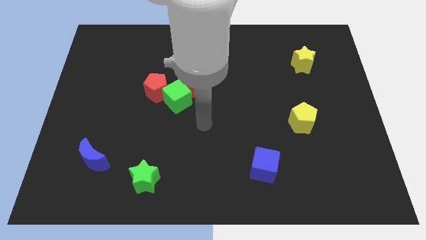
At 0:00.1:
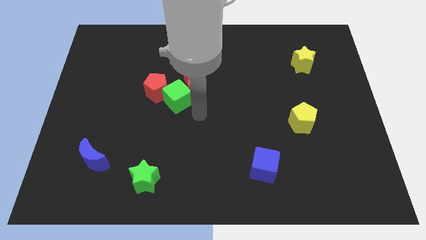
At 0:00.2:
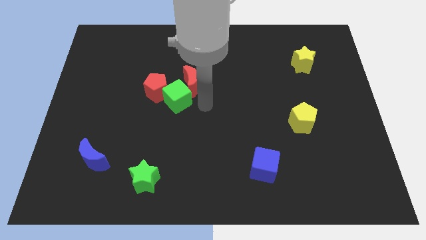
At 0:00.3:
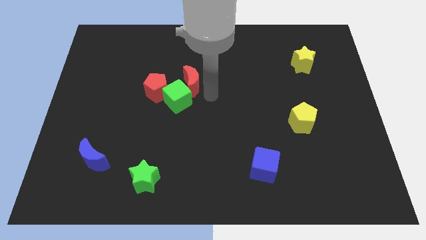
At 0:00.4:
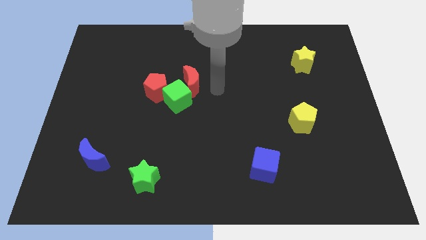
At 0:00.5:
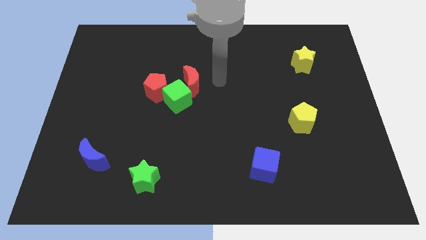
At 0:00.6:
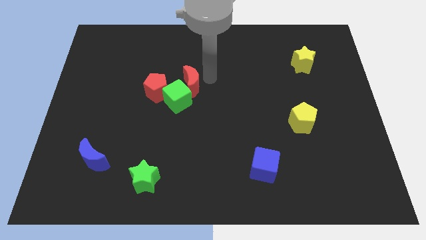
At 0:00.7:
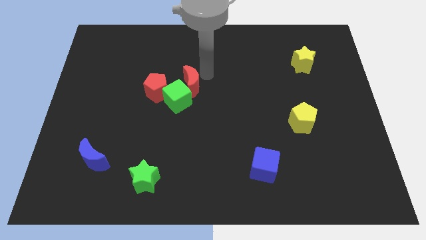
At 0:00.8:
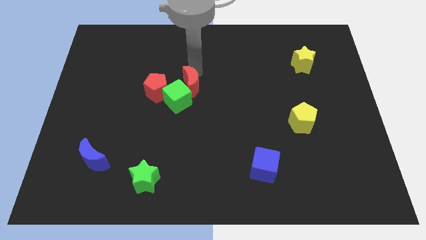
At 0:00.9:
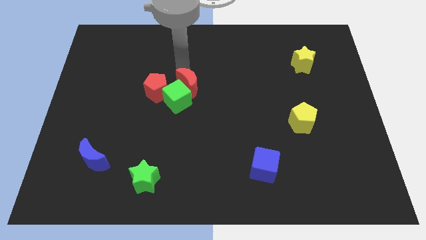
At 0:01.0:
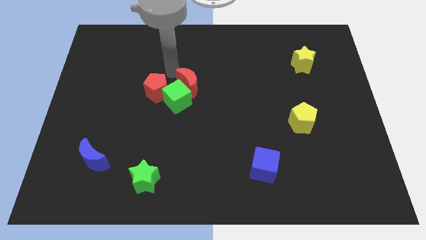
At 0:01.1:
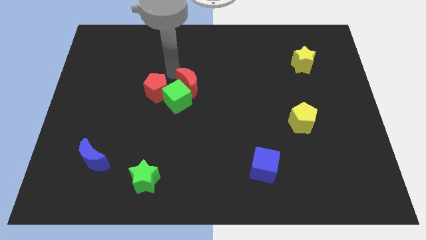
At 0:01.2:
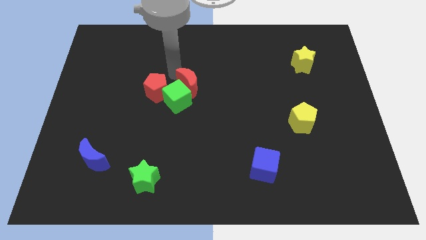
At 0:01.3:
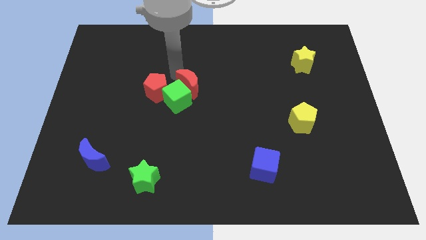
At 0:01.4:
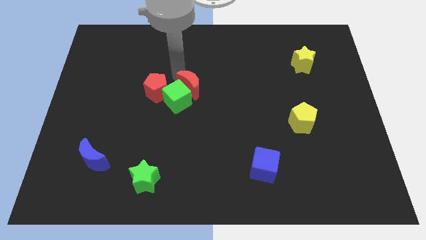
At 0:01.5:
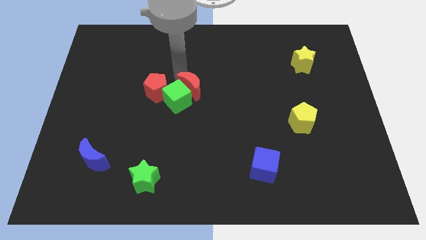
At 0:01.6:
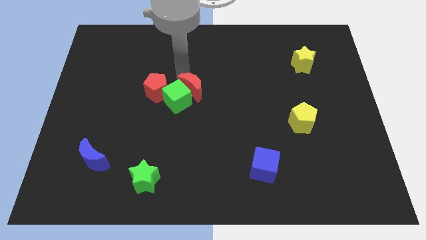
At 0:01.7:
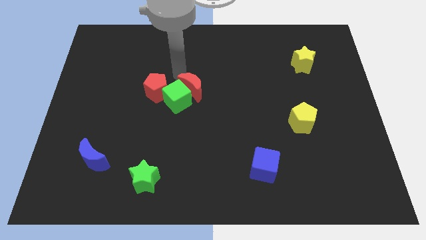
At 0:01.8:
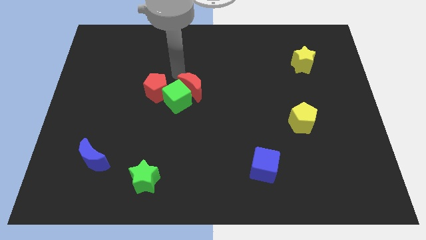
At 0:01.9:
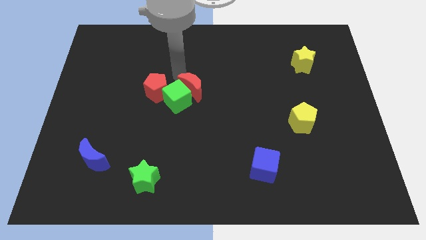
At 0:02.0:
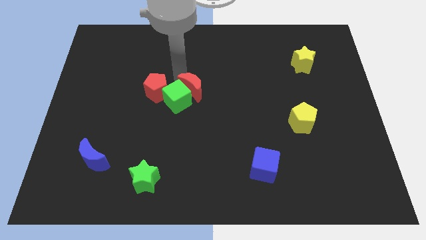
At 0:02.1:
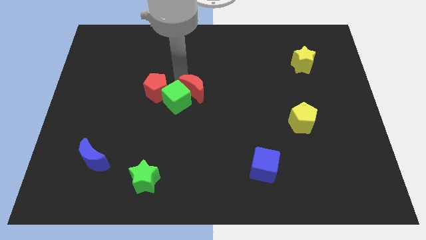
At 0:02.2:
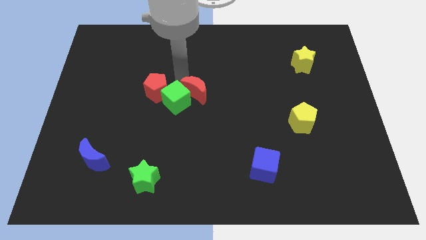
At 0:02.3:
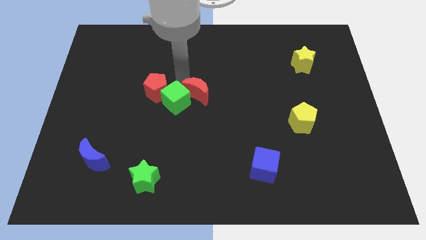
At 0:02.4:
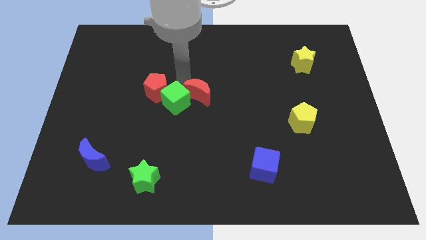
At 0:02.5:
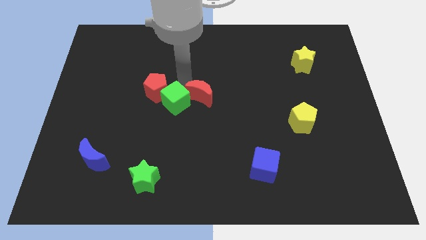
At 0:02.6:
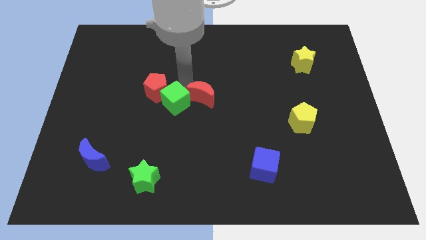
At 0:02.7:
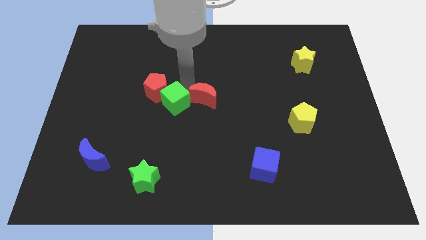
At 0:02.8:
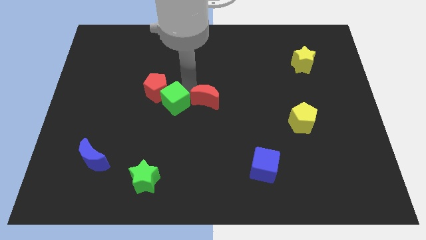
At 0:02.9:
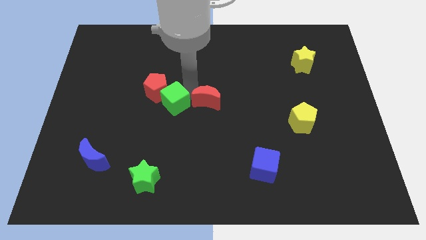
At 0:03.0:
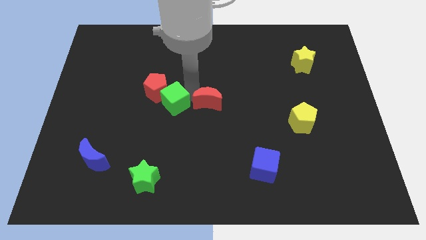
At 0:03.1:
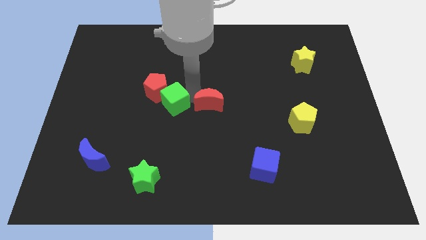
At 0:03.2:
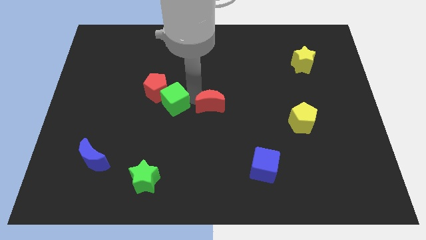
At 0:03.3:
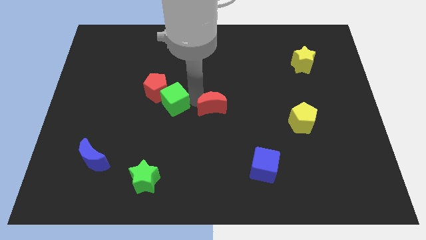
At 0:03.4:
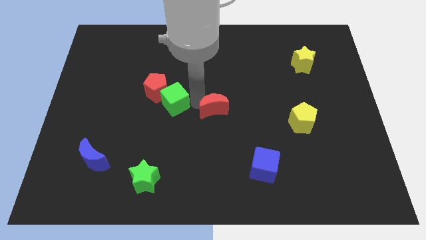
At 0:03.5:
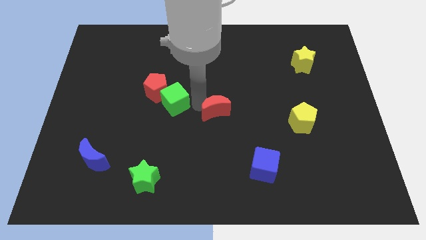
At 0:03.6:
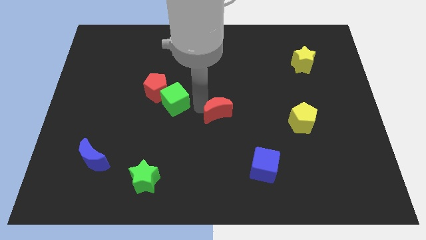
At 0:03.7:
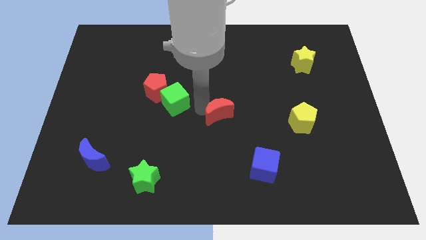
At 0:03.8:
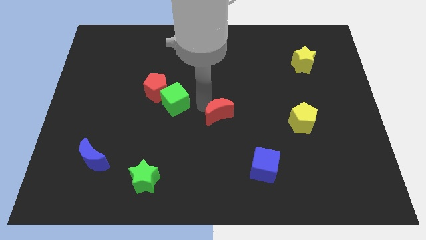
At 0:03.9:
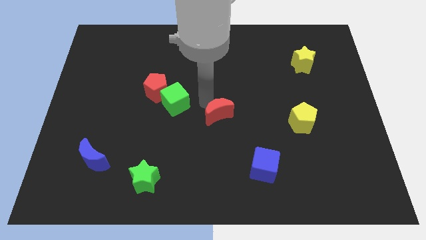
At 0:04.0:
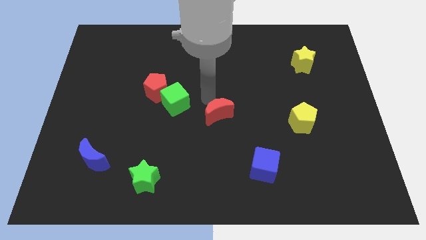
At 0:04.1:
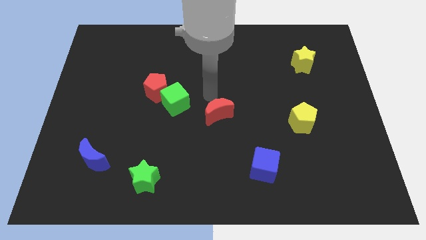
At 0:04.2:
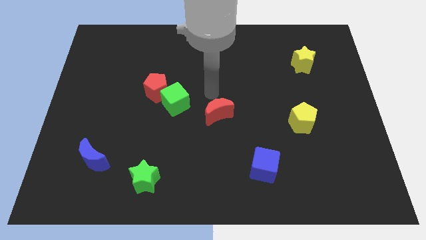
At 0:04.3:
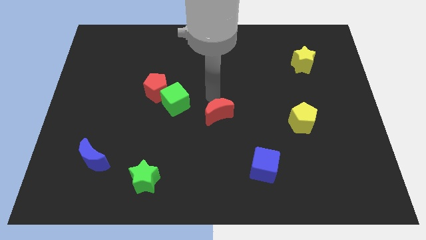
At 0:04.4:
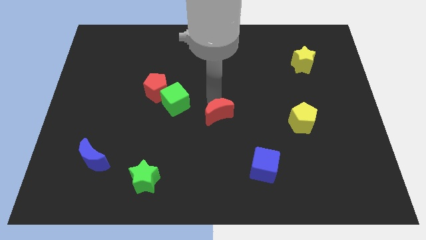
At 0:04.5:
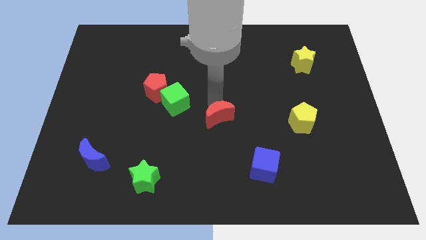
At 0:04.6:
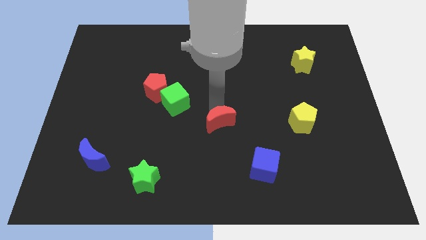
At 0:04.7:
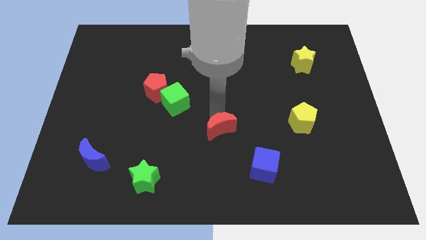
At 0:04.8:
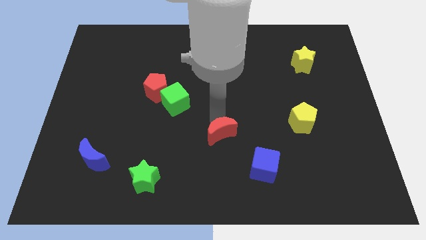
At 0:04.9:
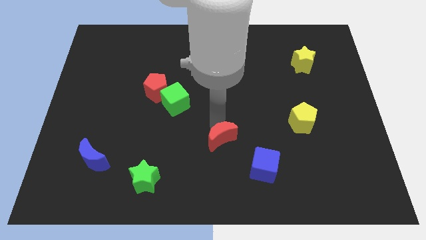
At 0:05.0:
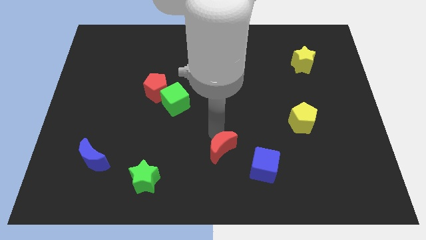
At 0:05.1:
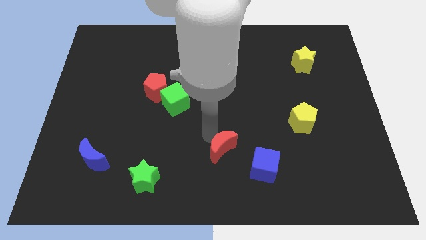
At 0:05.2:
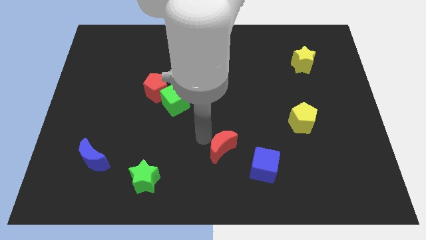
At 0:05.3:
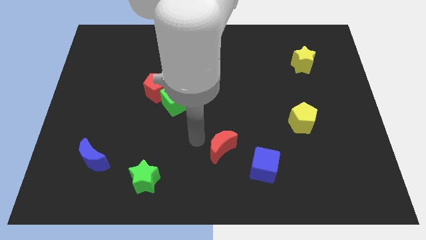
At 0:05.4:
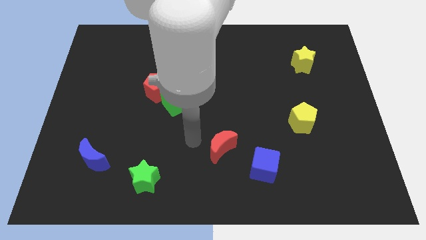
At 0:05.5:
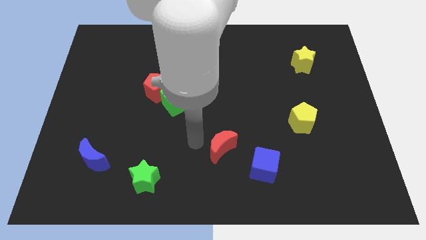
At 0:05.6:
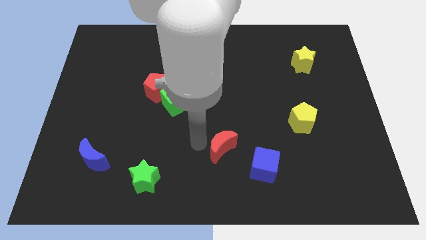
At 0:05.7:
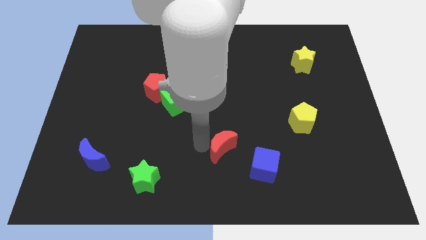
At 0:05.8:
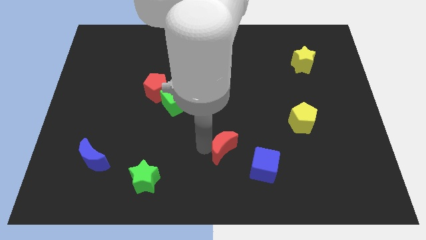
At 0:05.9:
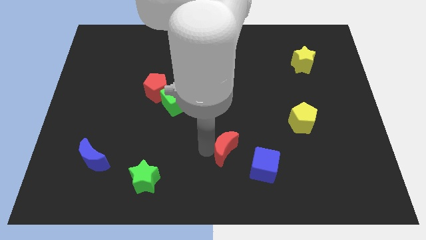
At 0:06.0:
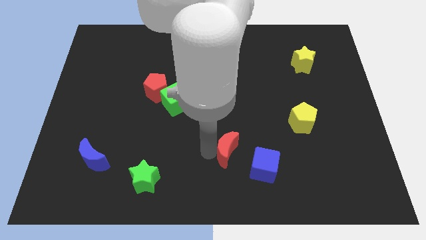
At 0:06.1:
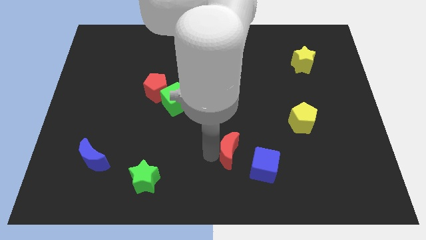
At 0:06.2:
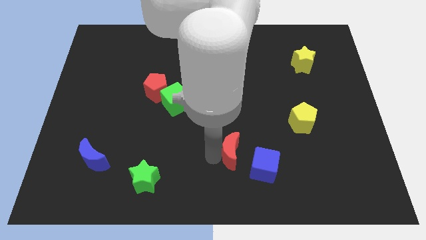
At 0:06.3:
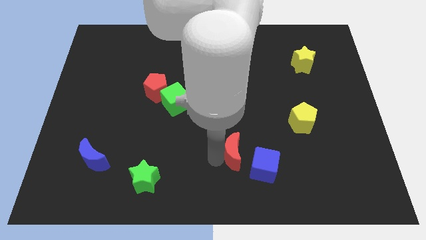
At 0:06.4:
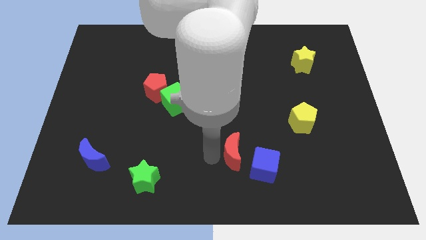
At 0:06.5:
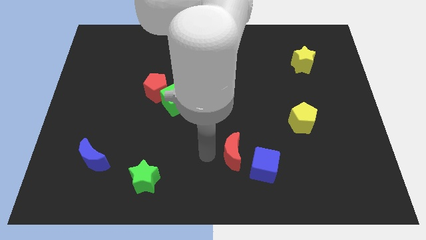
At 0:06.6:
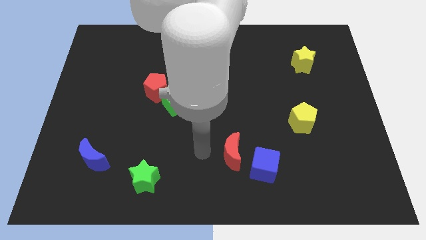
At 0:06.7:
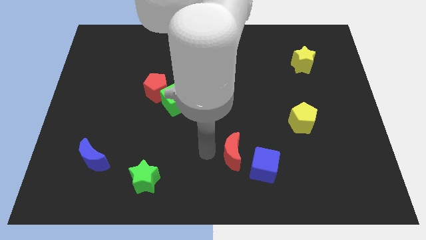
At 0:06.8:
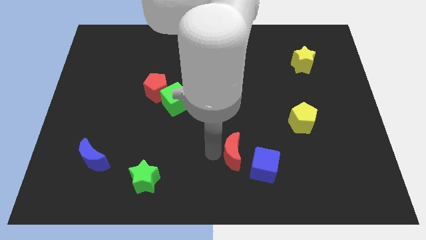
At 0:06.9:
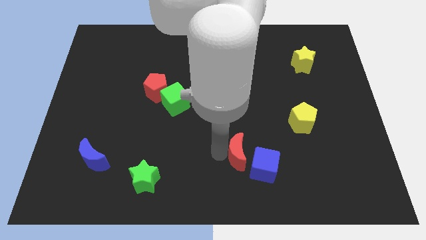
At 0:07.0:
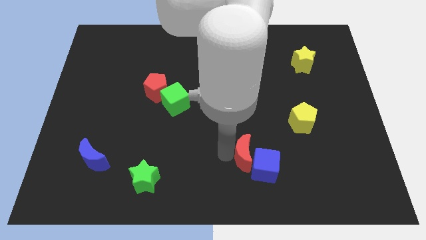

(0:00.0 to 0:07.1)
put the red moon to the blue cube
